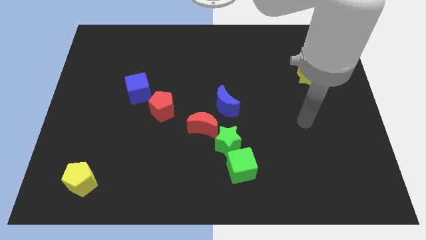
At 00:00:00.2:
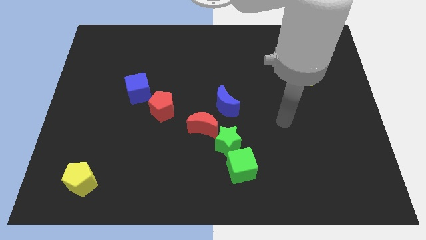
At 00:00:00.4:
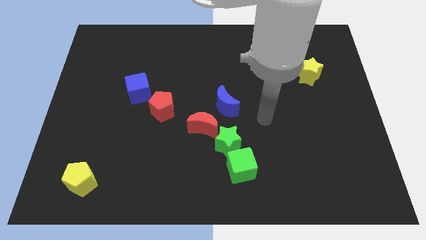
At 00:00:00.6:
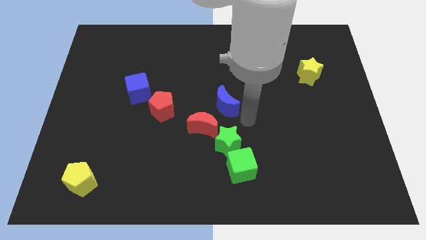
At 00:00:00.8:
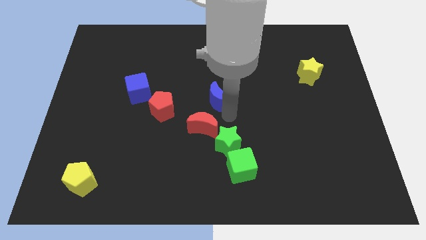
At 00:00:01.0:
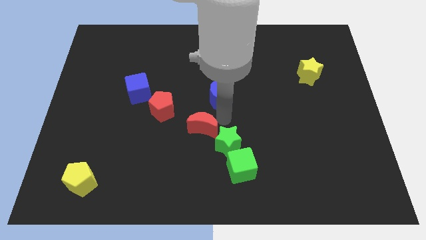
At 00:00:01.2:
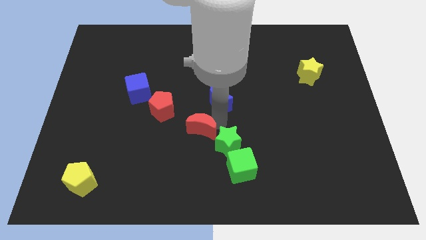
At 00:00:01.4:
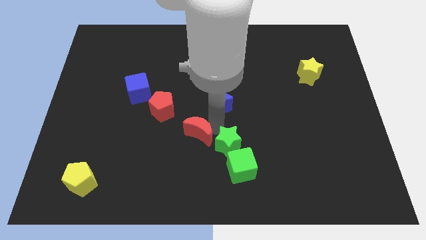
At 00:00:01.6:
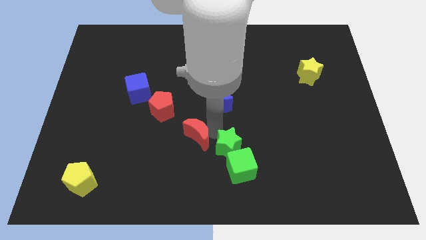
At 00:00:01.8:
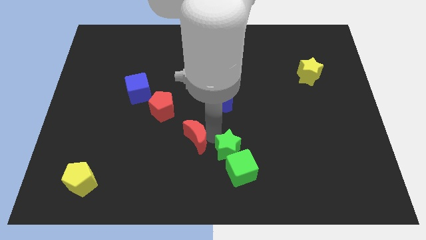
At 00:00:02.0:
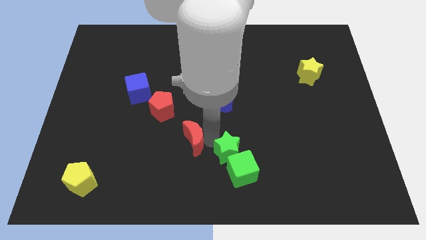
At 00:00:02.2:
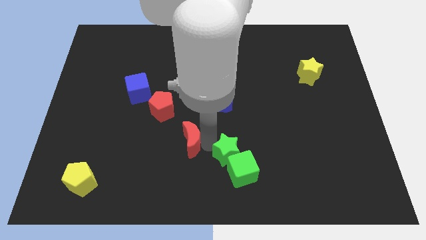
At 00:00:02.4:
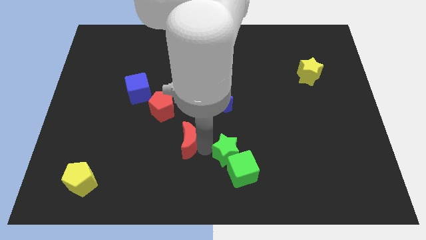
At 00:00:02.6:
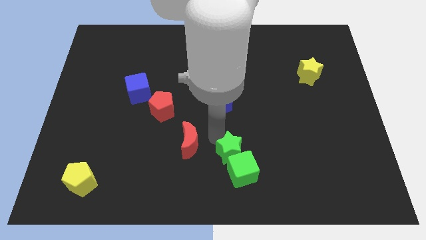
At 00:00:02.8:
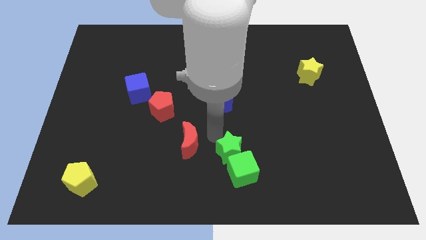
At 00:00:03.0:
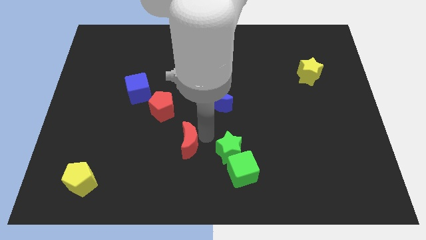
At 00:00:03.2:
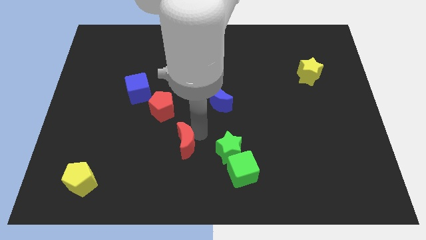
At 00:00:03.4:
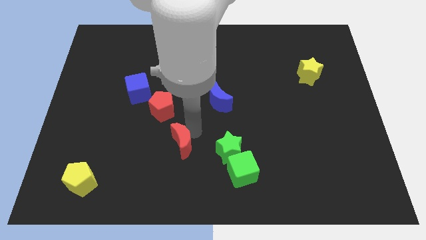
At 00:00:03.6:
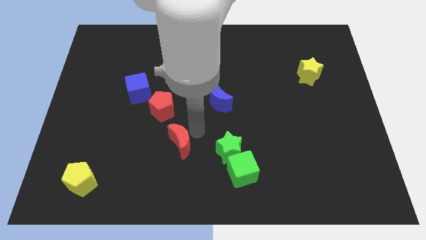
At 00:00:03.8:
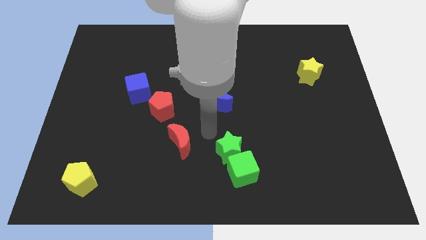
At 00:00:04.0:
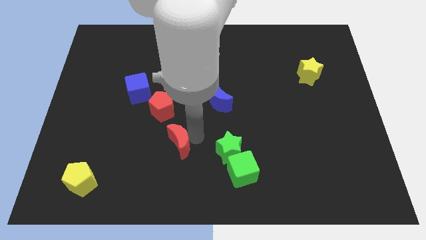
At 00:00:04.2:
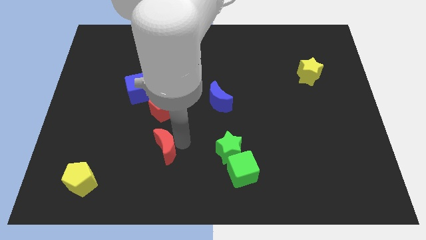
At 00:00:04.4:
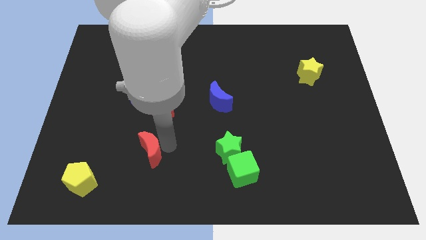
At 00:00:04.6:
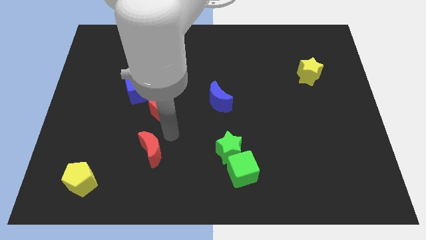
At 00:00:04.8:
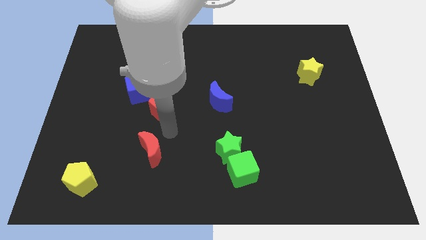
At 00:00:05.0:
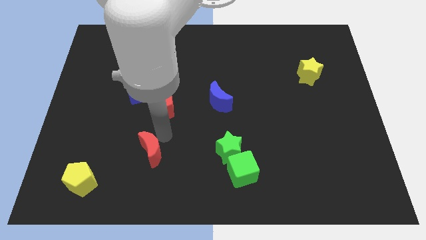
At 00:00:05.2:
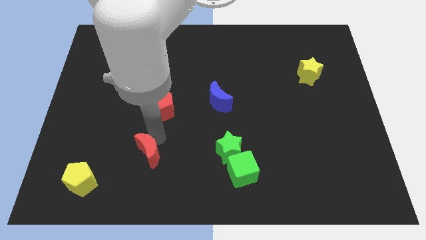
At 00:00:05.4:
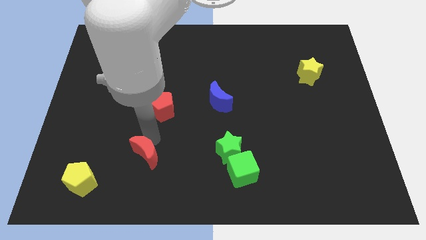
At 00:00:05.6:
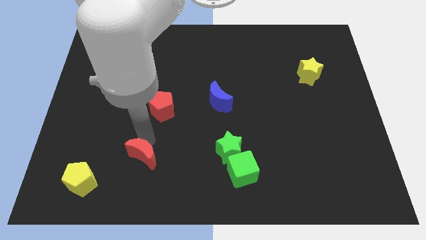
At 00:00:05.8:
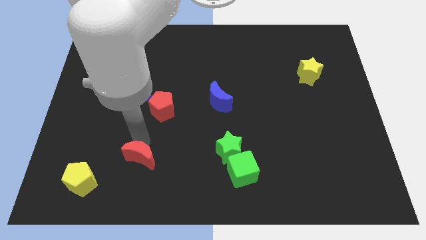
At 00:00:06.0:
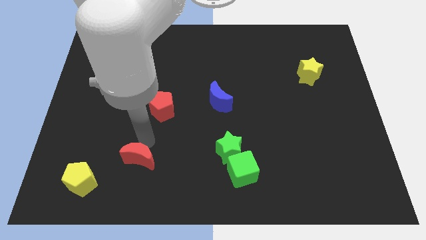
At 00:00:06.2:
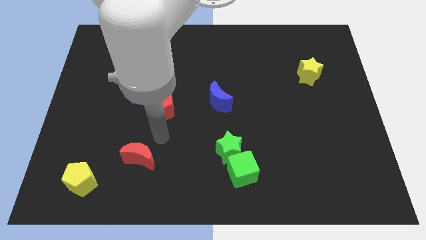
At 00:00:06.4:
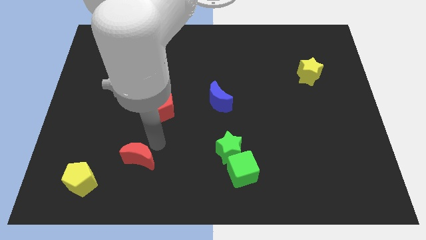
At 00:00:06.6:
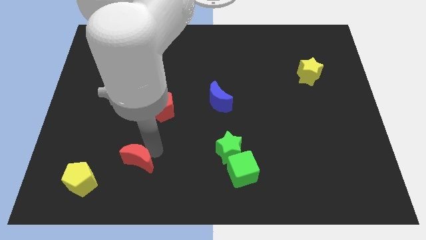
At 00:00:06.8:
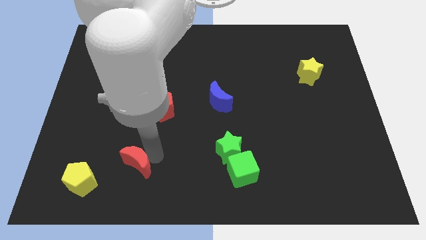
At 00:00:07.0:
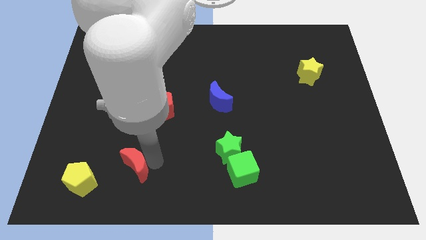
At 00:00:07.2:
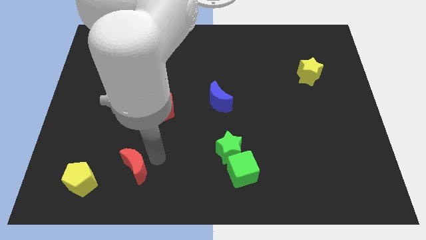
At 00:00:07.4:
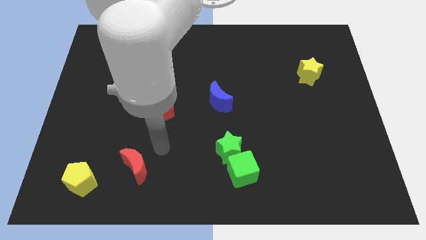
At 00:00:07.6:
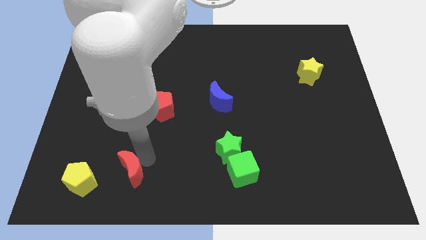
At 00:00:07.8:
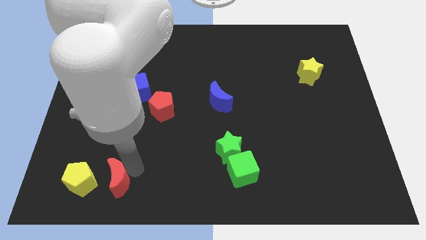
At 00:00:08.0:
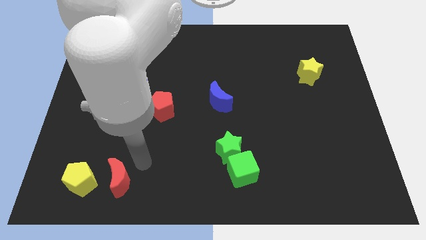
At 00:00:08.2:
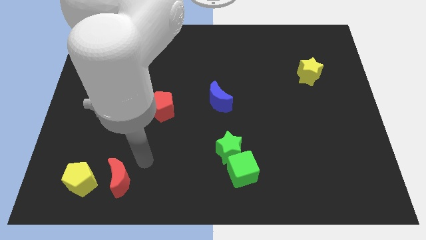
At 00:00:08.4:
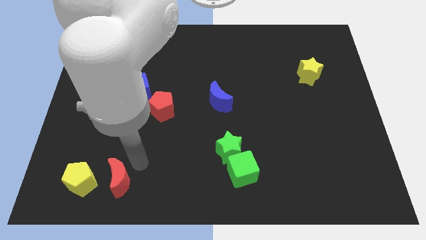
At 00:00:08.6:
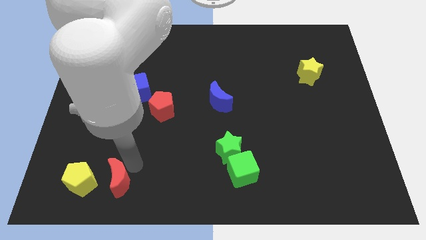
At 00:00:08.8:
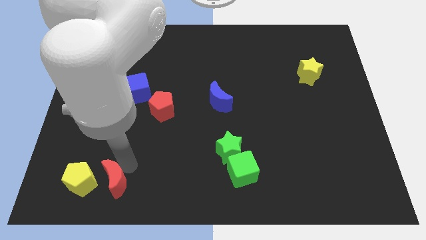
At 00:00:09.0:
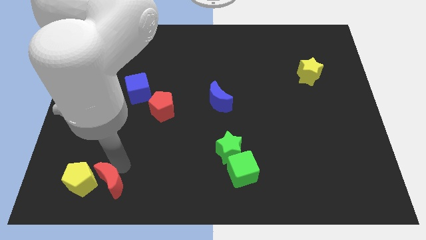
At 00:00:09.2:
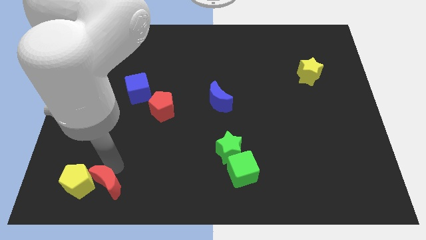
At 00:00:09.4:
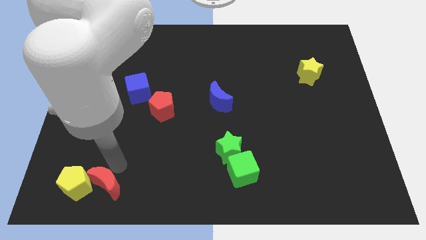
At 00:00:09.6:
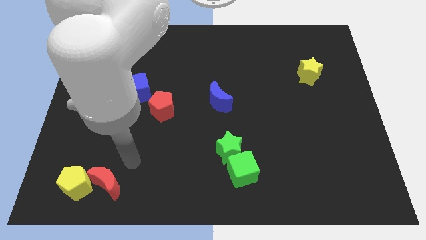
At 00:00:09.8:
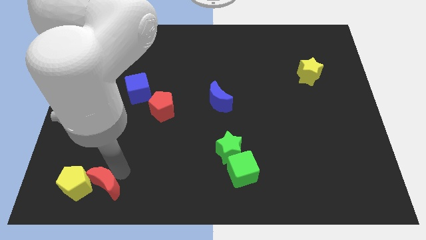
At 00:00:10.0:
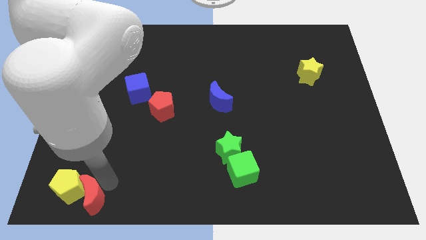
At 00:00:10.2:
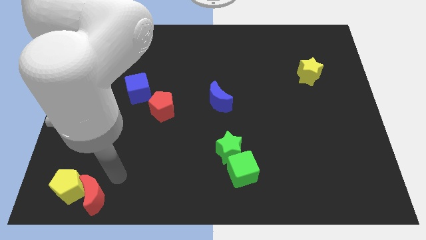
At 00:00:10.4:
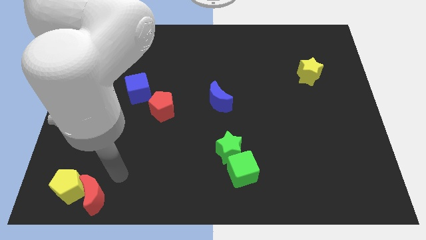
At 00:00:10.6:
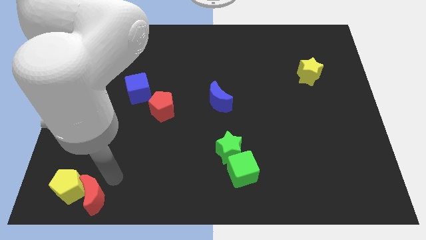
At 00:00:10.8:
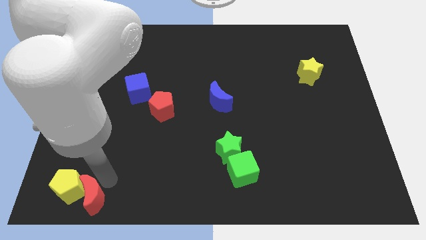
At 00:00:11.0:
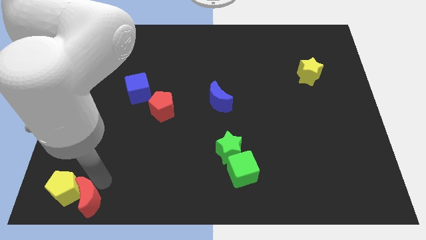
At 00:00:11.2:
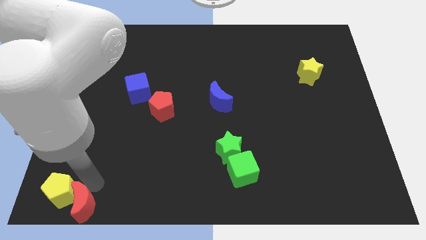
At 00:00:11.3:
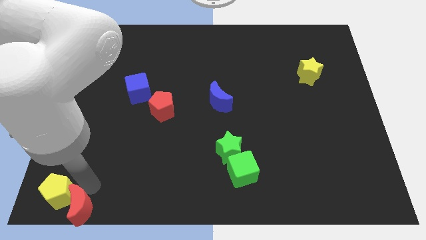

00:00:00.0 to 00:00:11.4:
put the red moon to the bottom left

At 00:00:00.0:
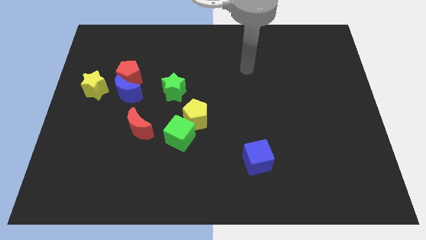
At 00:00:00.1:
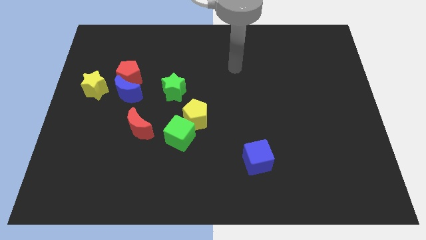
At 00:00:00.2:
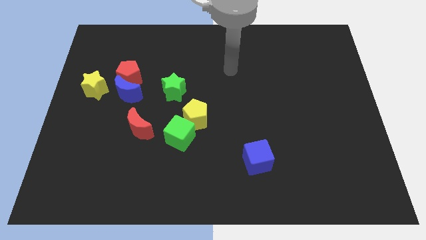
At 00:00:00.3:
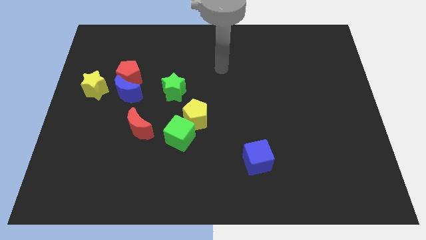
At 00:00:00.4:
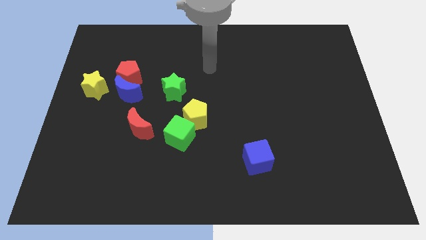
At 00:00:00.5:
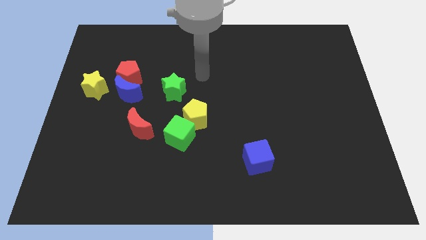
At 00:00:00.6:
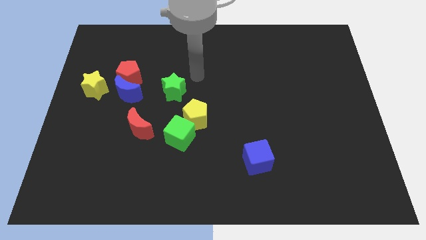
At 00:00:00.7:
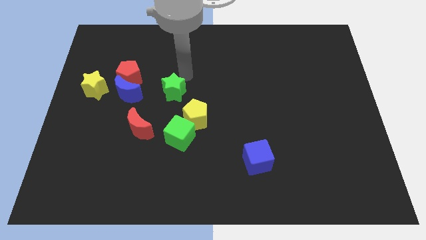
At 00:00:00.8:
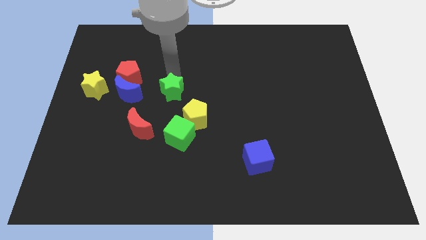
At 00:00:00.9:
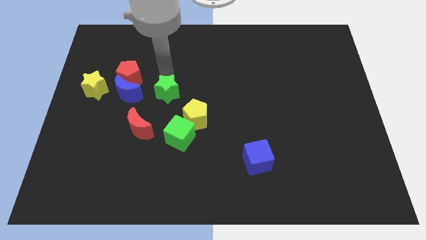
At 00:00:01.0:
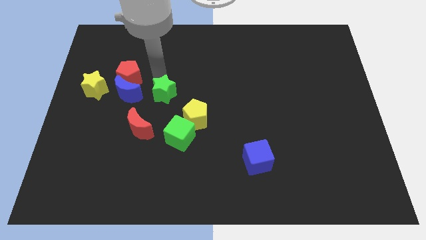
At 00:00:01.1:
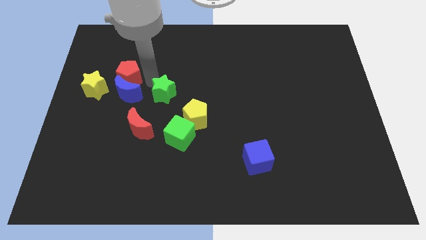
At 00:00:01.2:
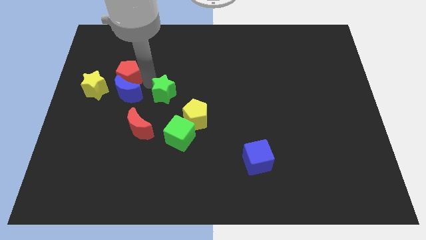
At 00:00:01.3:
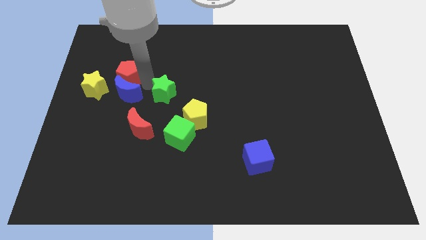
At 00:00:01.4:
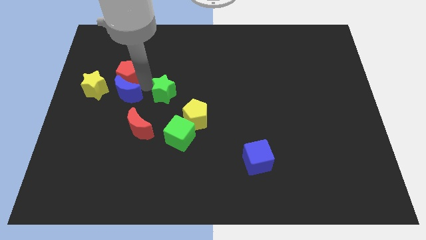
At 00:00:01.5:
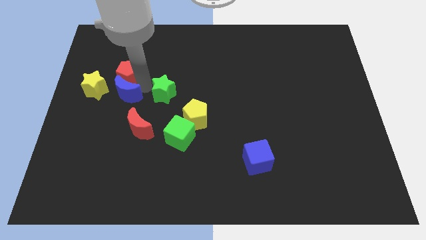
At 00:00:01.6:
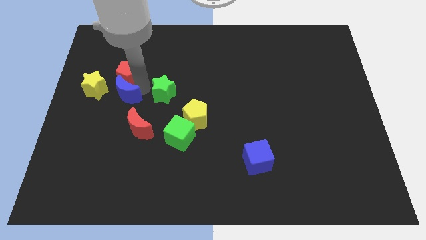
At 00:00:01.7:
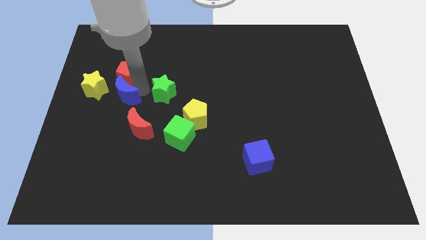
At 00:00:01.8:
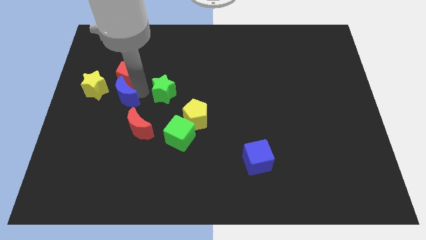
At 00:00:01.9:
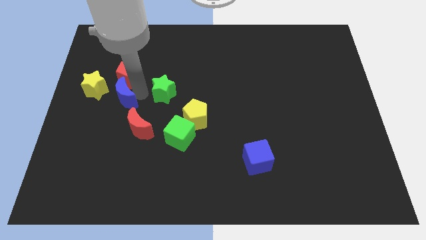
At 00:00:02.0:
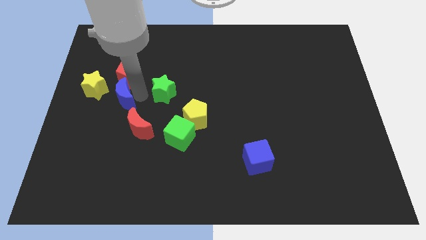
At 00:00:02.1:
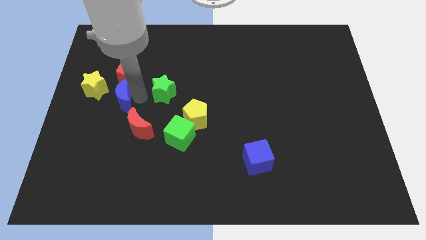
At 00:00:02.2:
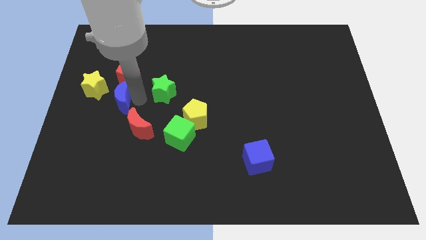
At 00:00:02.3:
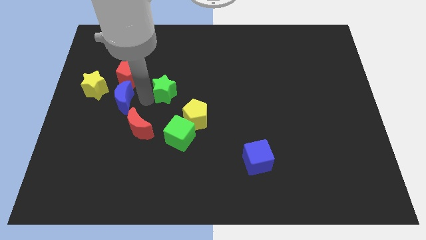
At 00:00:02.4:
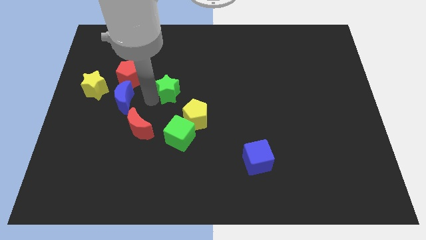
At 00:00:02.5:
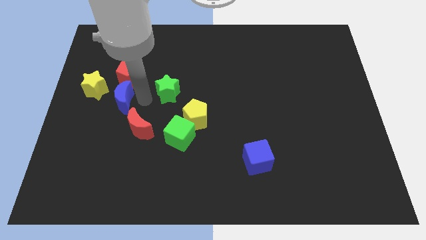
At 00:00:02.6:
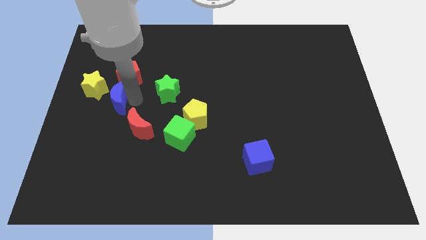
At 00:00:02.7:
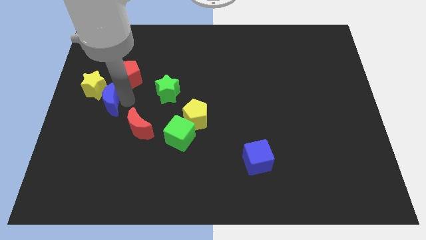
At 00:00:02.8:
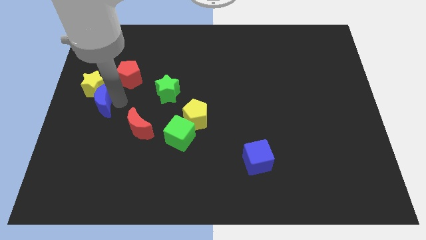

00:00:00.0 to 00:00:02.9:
move the blue moon to the left side of the board
